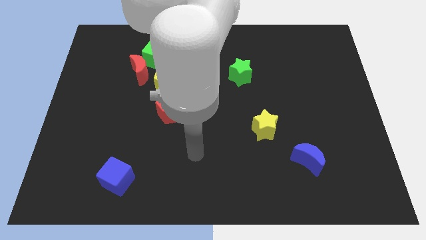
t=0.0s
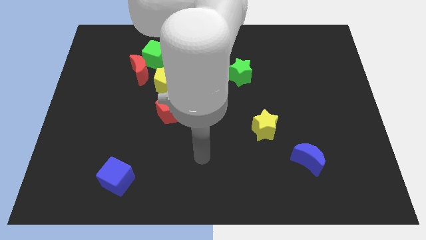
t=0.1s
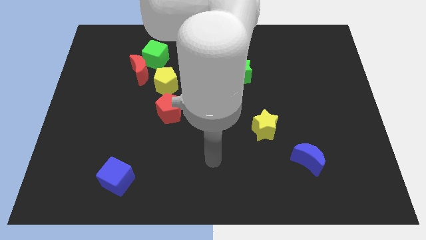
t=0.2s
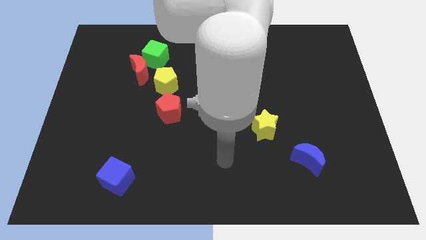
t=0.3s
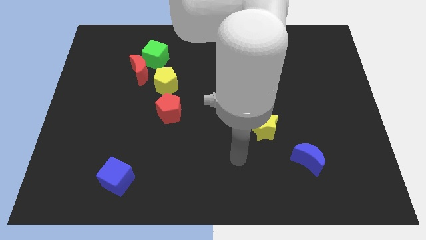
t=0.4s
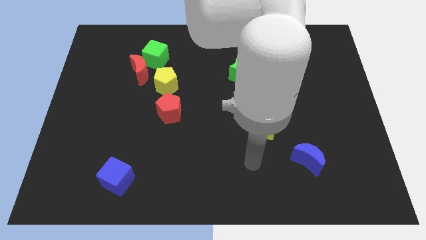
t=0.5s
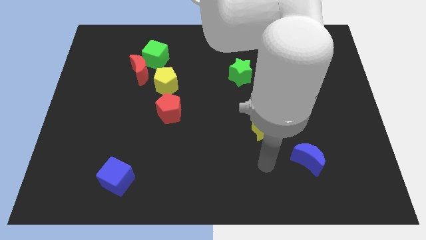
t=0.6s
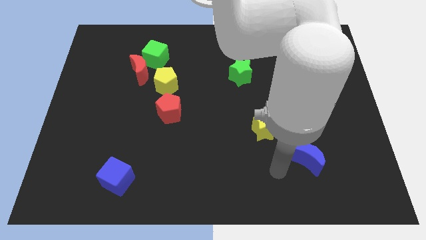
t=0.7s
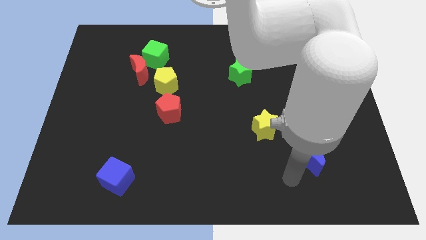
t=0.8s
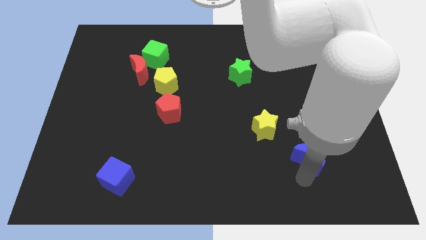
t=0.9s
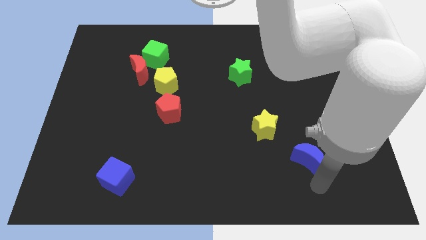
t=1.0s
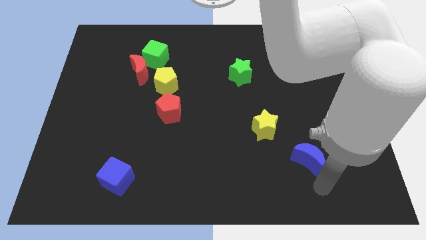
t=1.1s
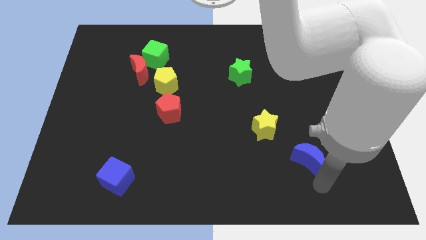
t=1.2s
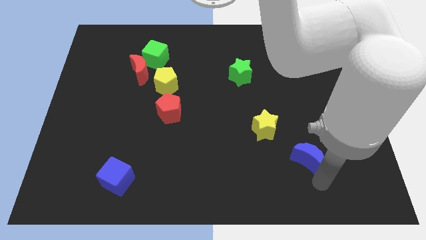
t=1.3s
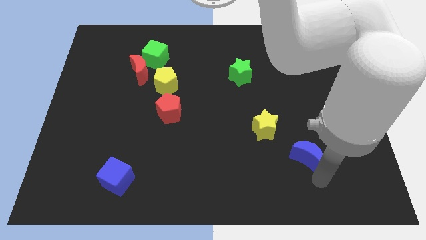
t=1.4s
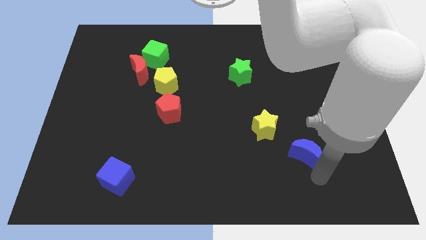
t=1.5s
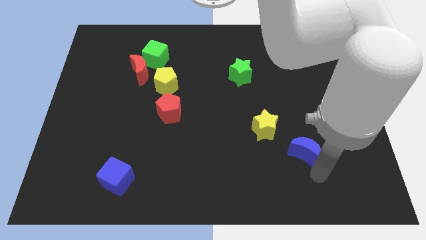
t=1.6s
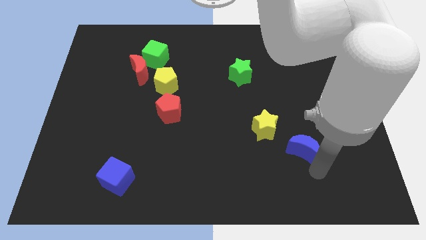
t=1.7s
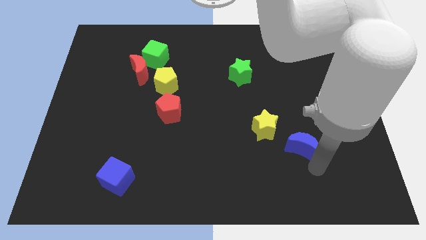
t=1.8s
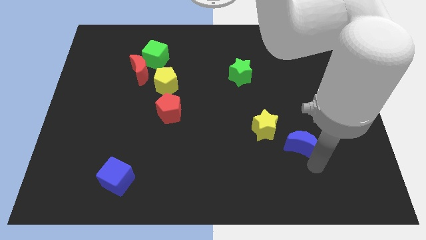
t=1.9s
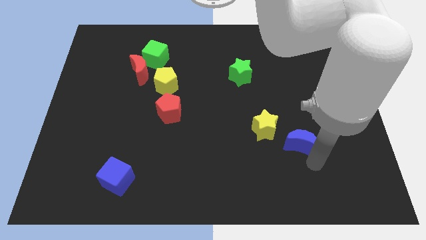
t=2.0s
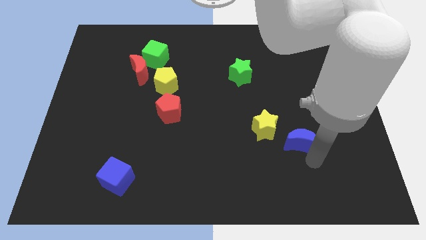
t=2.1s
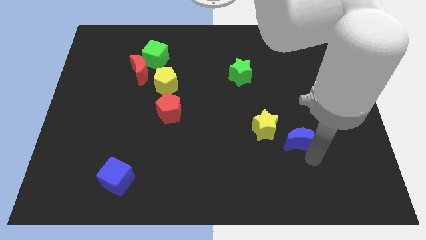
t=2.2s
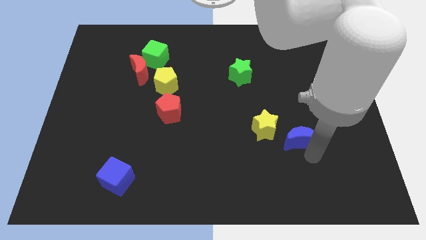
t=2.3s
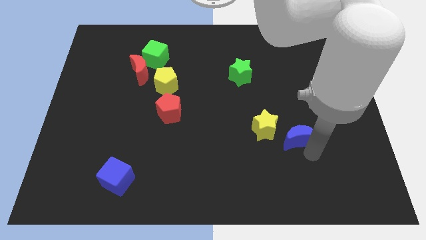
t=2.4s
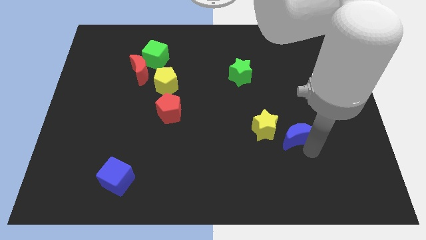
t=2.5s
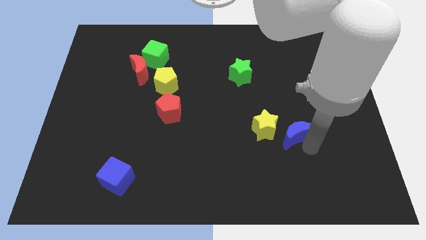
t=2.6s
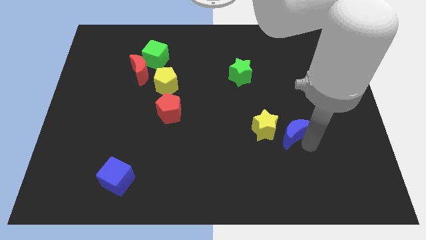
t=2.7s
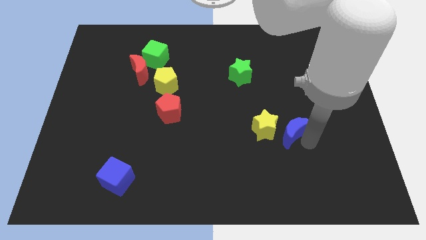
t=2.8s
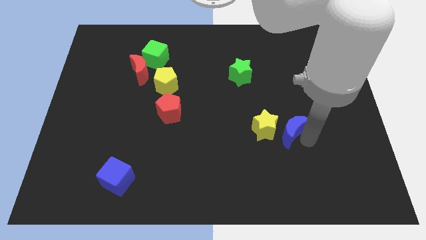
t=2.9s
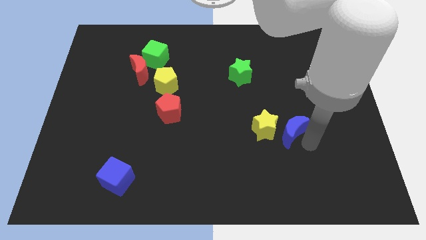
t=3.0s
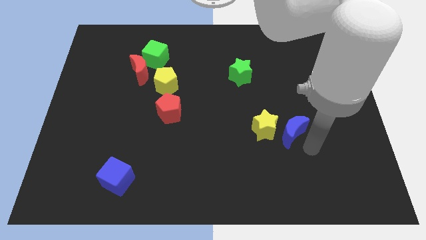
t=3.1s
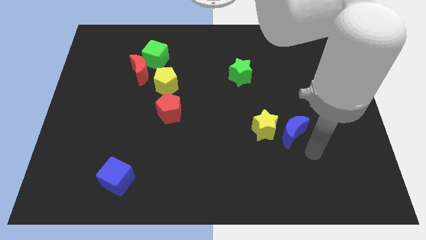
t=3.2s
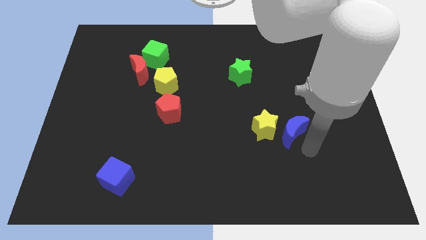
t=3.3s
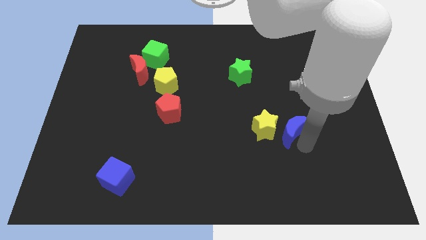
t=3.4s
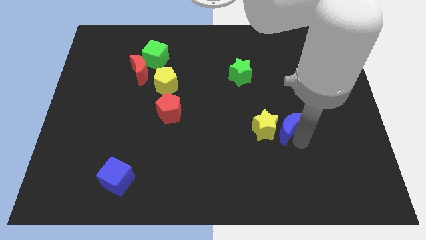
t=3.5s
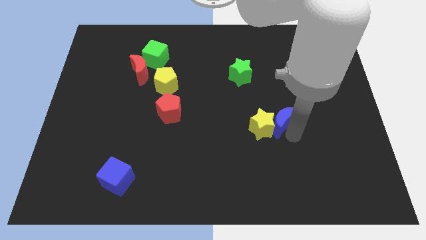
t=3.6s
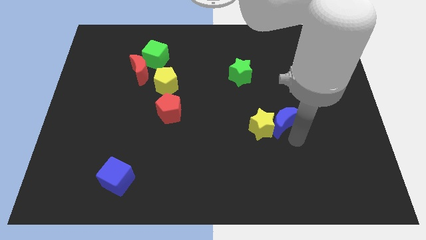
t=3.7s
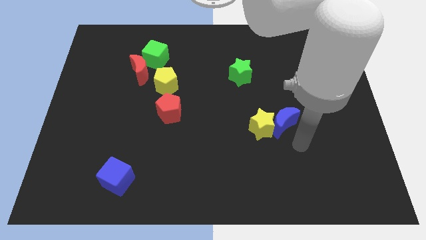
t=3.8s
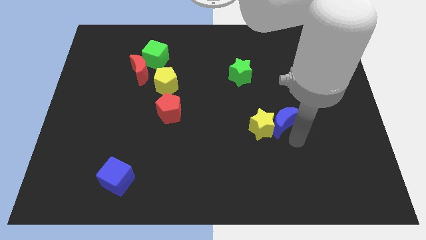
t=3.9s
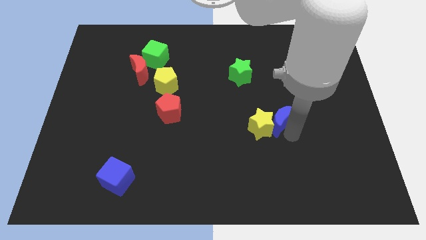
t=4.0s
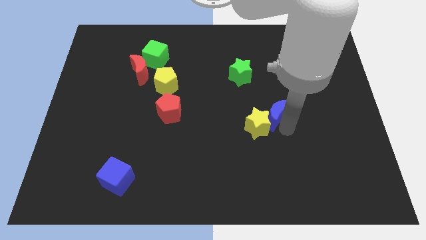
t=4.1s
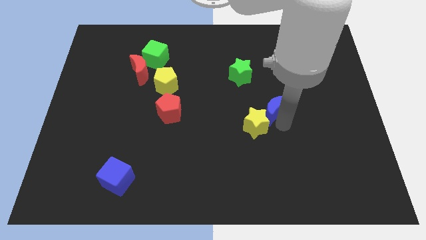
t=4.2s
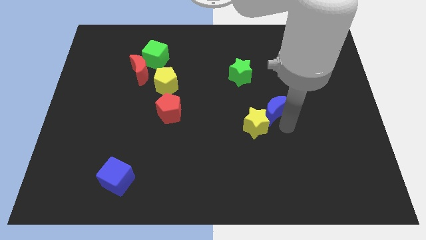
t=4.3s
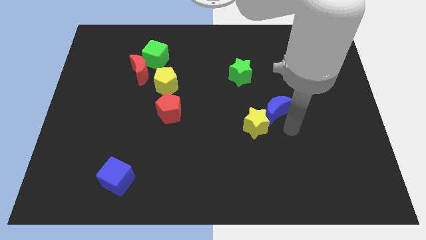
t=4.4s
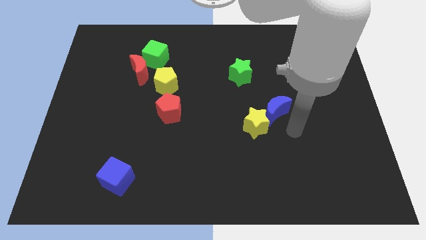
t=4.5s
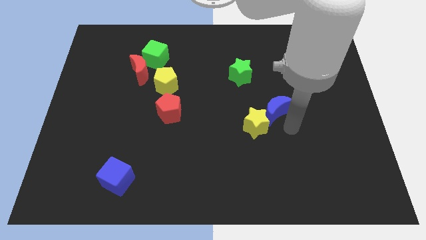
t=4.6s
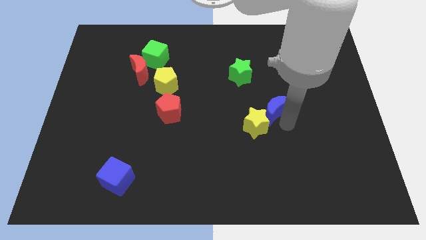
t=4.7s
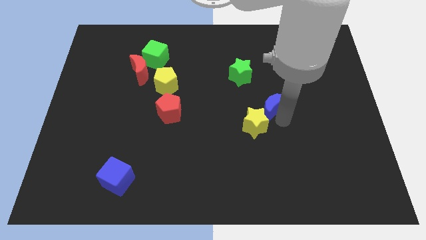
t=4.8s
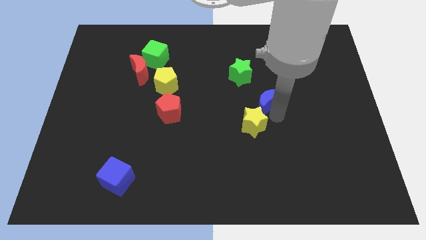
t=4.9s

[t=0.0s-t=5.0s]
push the blue moon diagonally down and to the right of the green star

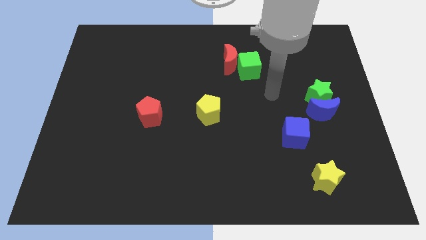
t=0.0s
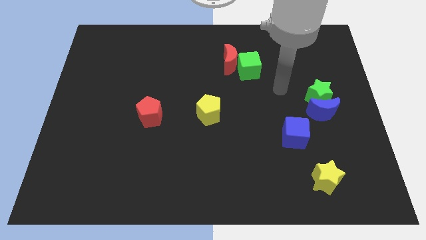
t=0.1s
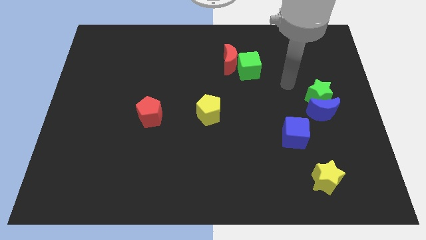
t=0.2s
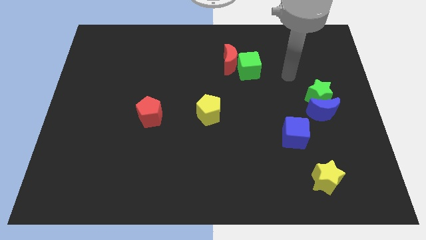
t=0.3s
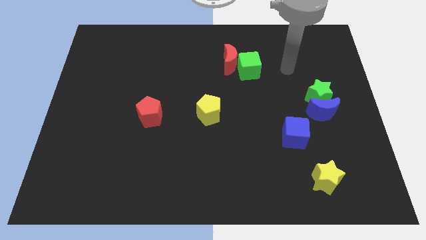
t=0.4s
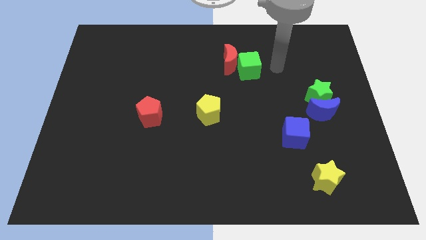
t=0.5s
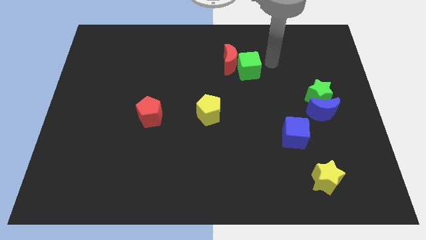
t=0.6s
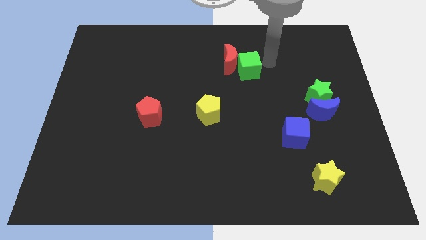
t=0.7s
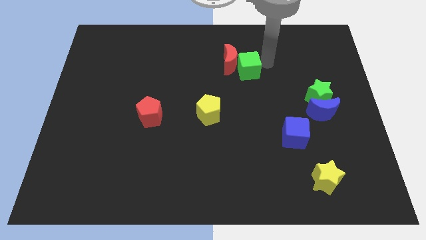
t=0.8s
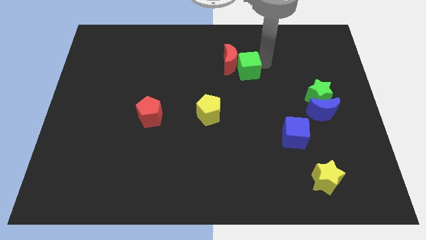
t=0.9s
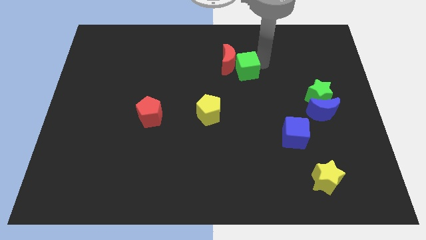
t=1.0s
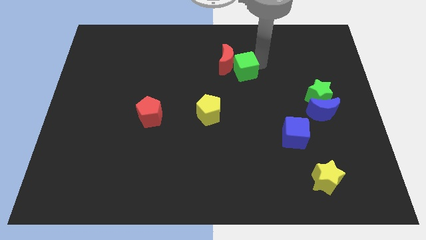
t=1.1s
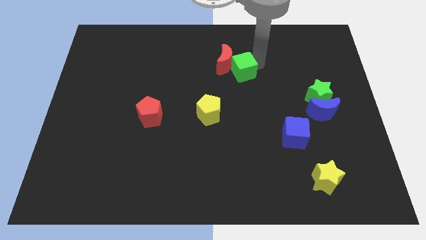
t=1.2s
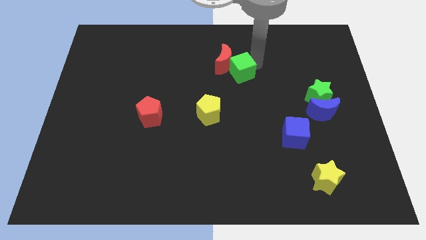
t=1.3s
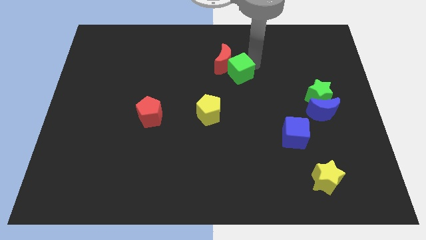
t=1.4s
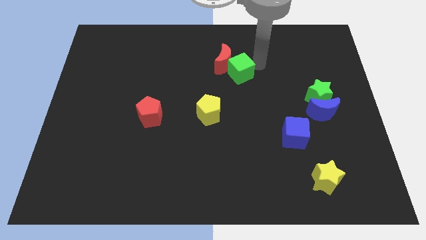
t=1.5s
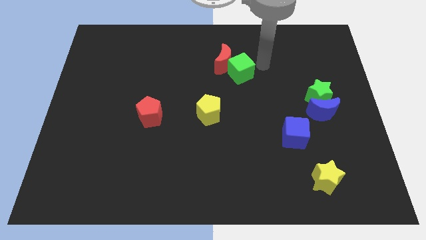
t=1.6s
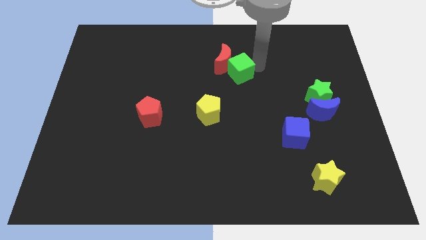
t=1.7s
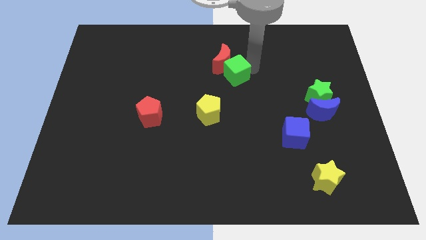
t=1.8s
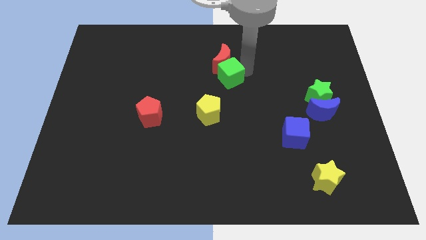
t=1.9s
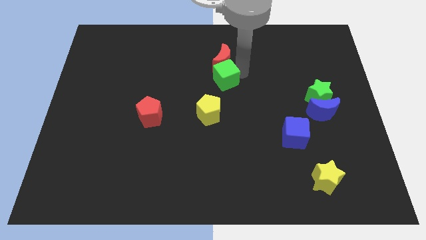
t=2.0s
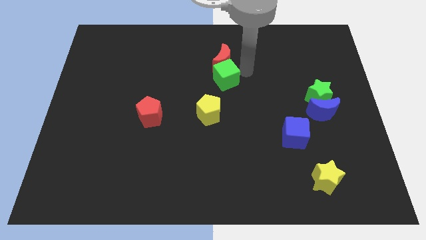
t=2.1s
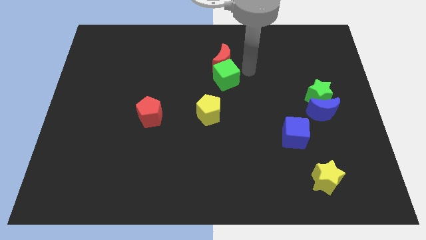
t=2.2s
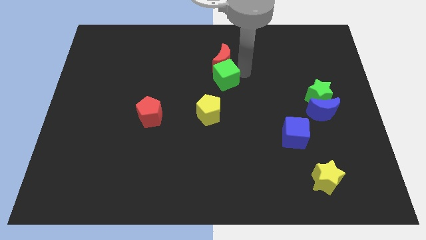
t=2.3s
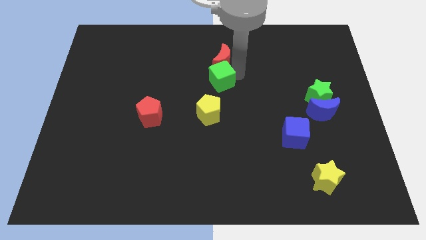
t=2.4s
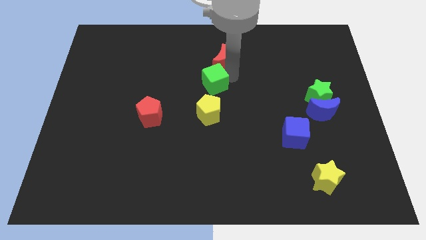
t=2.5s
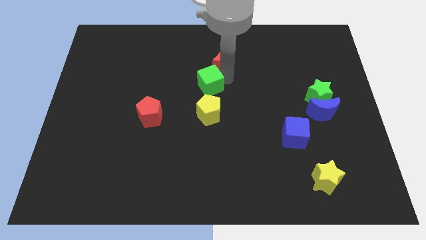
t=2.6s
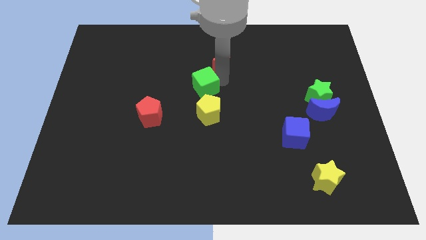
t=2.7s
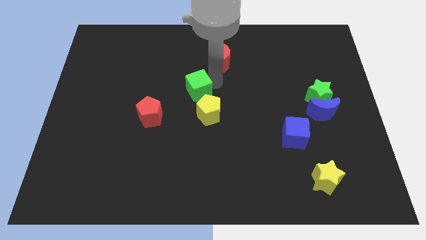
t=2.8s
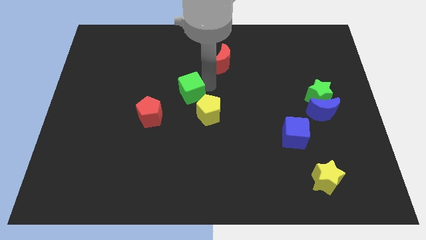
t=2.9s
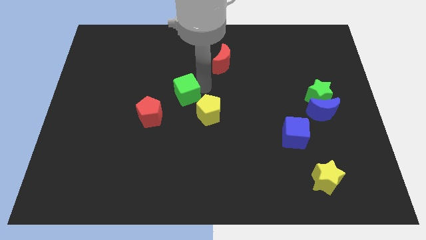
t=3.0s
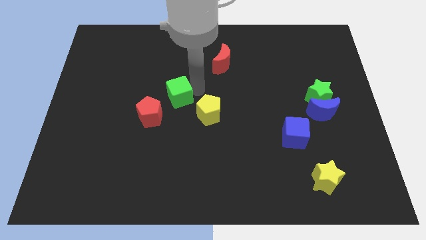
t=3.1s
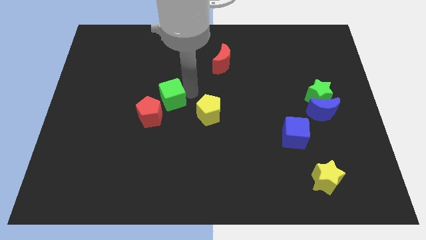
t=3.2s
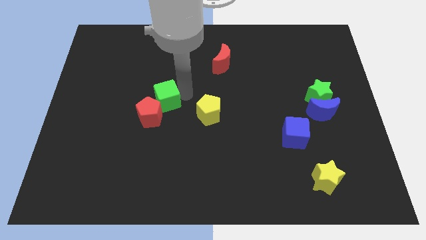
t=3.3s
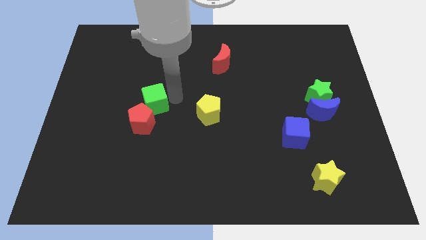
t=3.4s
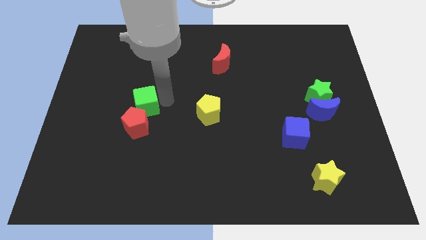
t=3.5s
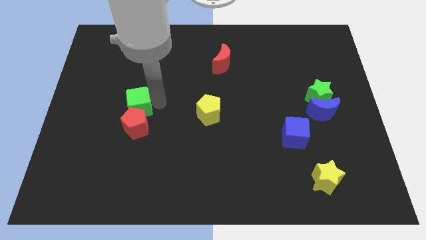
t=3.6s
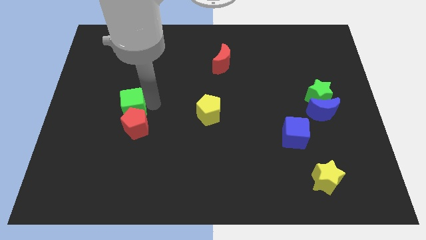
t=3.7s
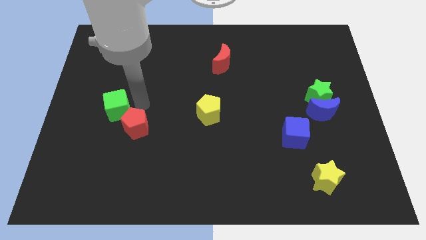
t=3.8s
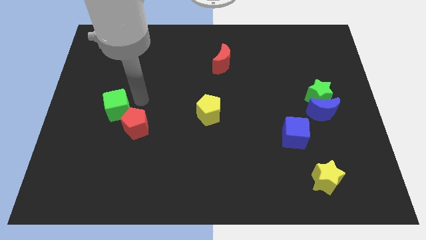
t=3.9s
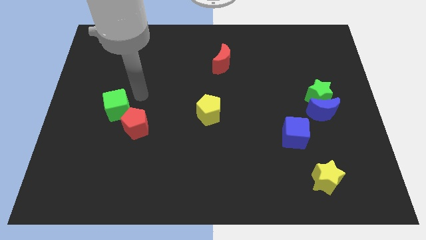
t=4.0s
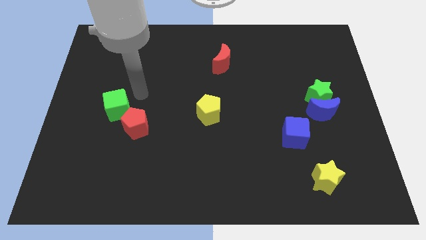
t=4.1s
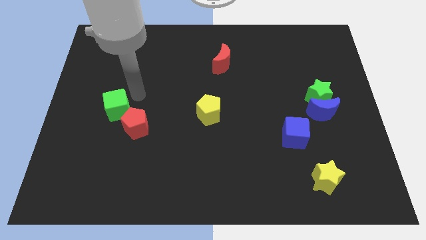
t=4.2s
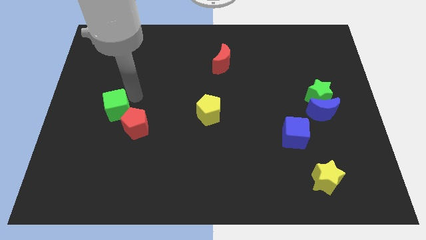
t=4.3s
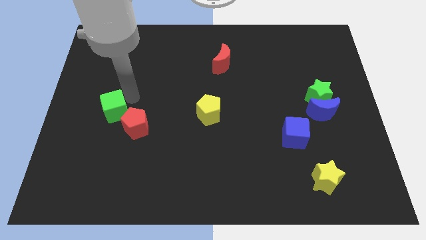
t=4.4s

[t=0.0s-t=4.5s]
put the green cube just left of the red pentagon
